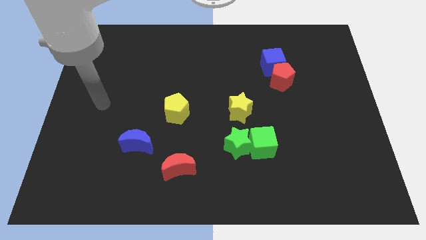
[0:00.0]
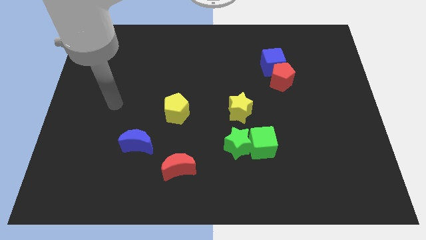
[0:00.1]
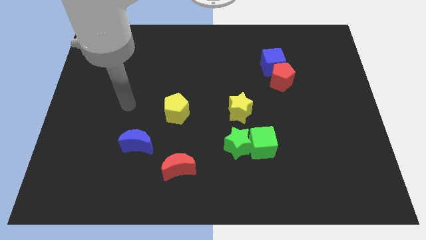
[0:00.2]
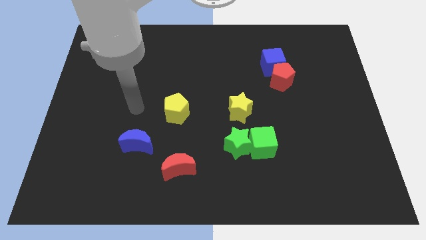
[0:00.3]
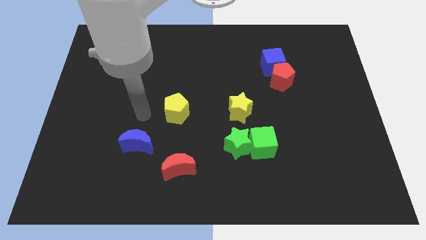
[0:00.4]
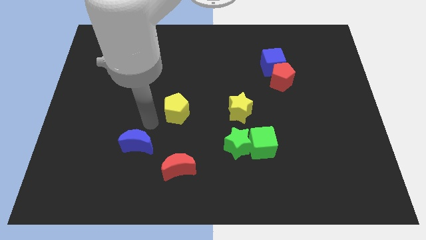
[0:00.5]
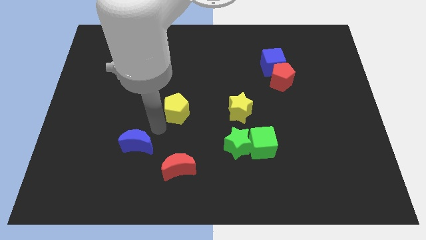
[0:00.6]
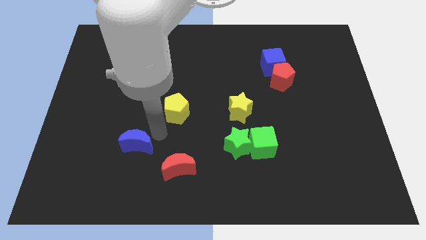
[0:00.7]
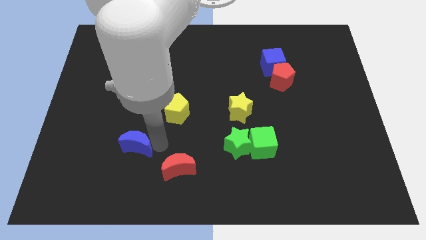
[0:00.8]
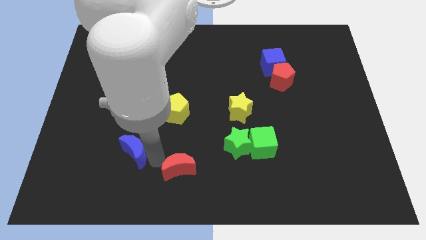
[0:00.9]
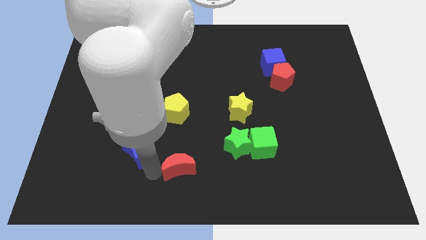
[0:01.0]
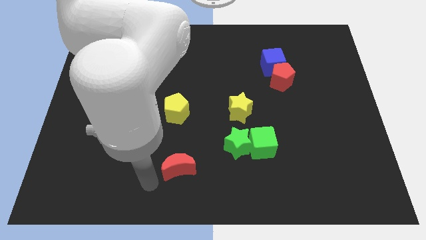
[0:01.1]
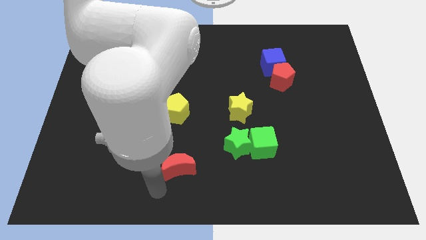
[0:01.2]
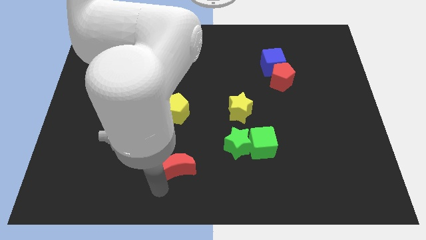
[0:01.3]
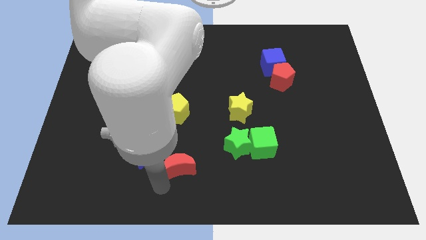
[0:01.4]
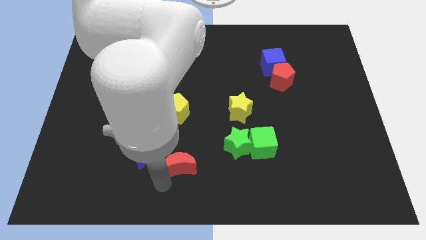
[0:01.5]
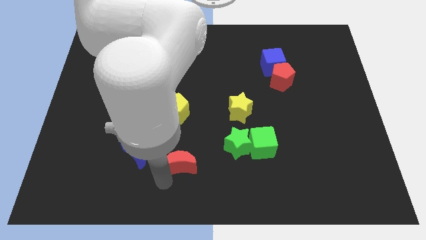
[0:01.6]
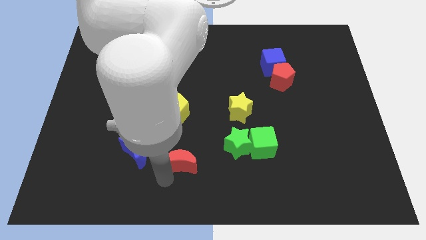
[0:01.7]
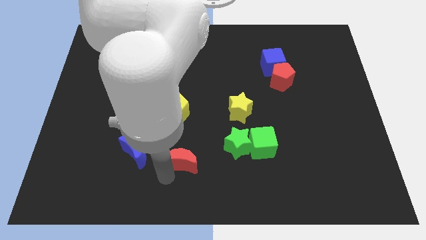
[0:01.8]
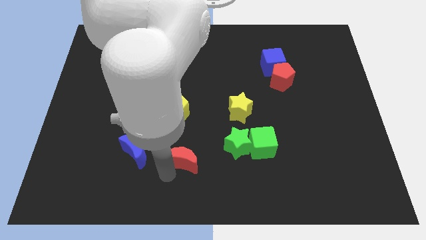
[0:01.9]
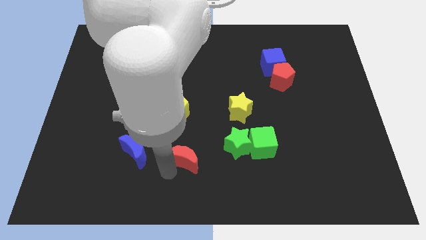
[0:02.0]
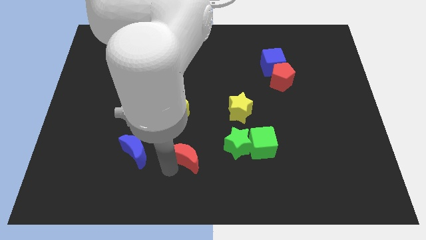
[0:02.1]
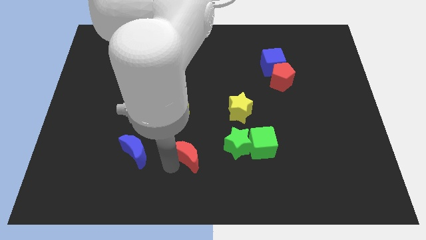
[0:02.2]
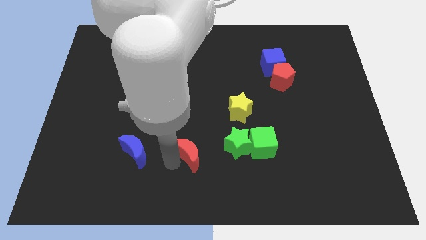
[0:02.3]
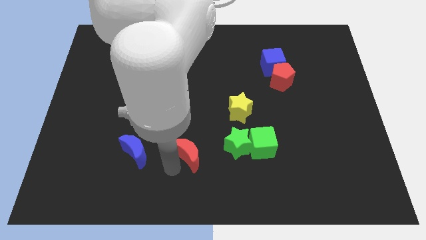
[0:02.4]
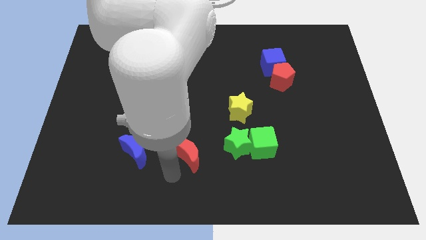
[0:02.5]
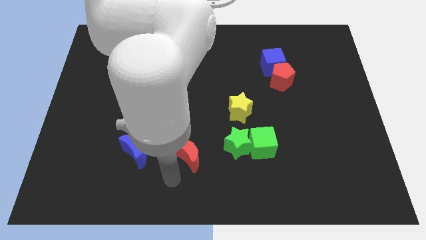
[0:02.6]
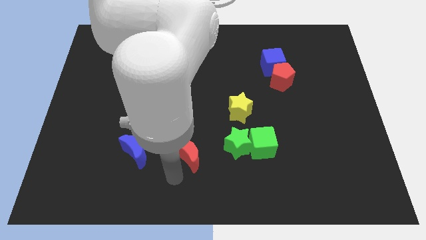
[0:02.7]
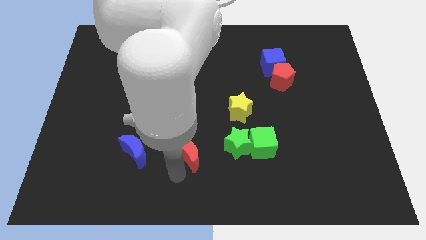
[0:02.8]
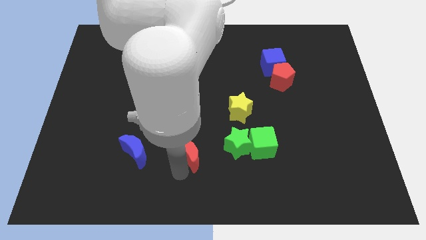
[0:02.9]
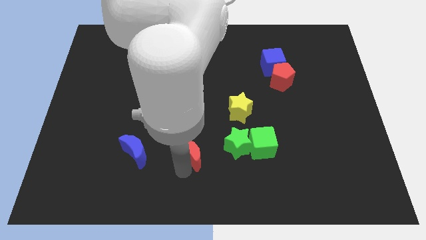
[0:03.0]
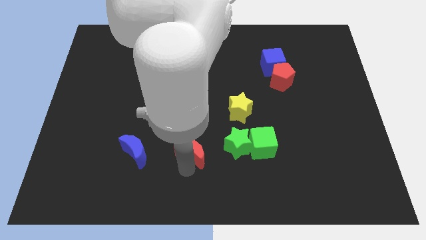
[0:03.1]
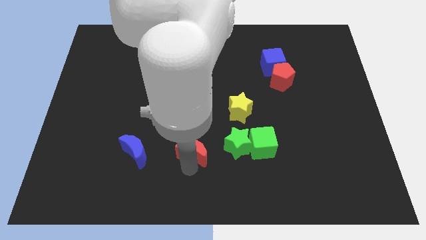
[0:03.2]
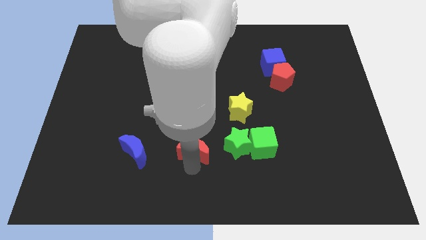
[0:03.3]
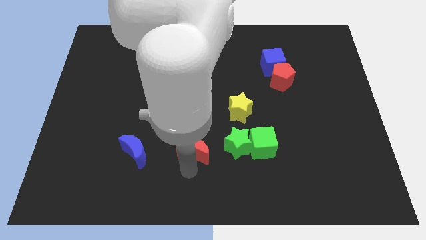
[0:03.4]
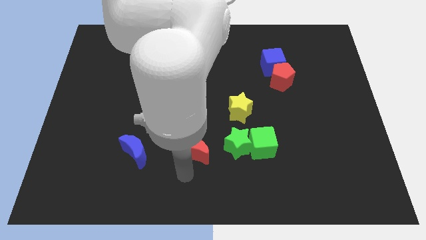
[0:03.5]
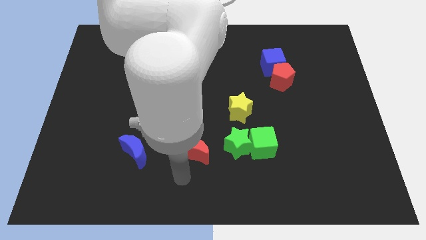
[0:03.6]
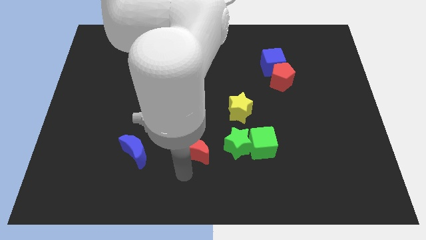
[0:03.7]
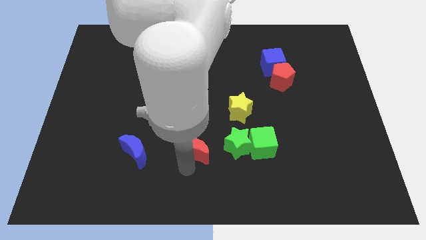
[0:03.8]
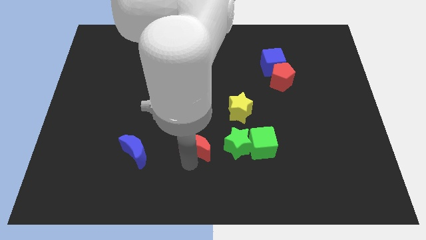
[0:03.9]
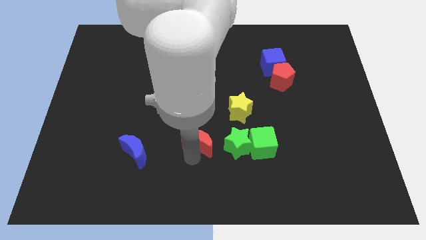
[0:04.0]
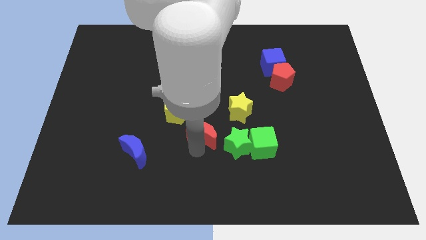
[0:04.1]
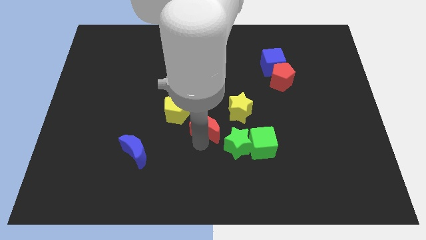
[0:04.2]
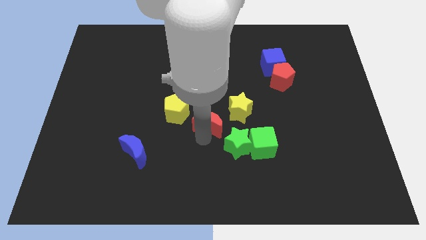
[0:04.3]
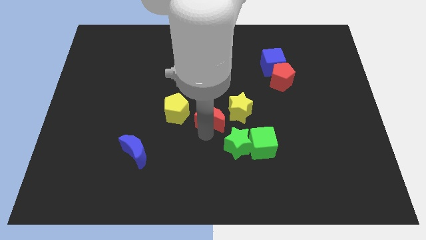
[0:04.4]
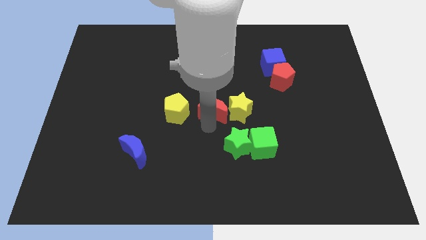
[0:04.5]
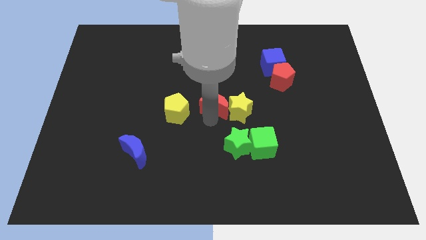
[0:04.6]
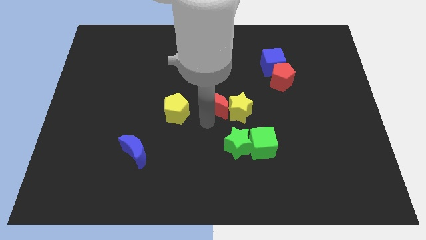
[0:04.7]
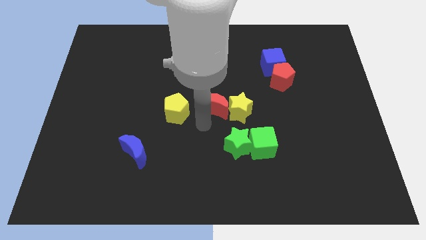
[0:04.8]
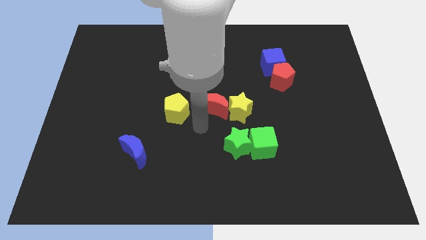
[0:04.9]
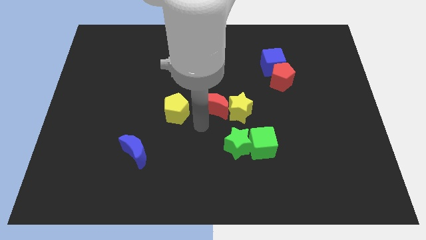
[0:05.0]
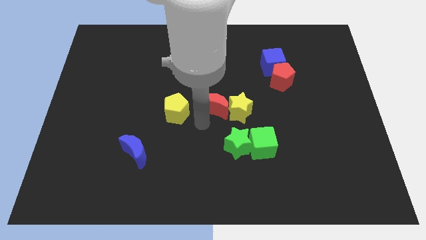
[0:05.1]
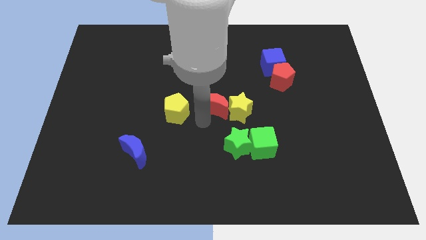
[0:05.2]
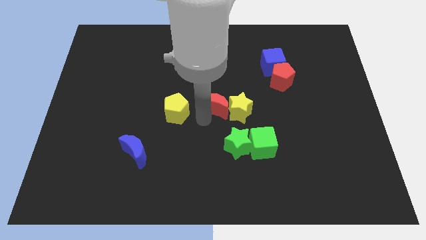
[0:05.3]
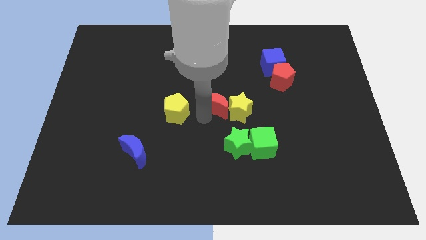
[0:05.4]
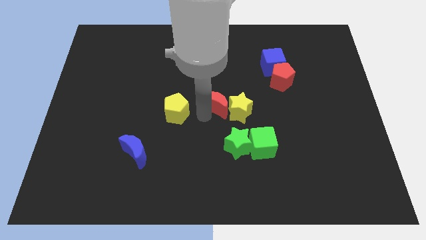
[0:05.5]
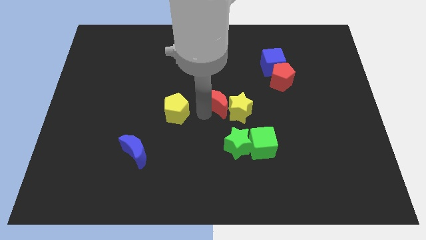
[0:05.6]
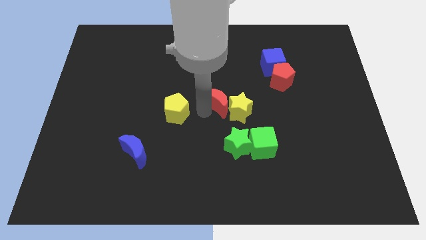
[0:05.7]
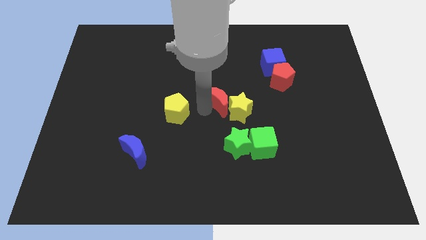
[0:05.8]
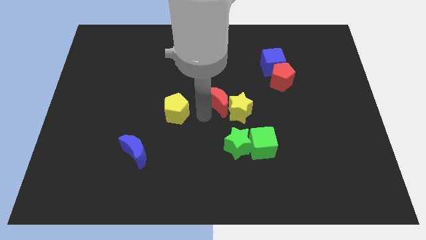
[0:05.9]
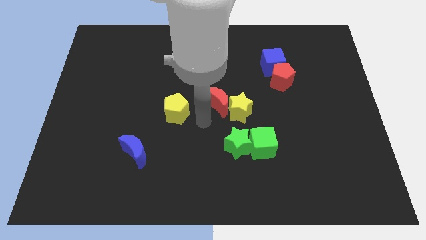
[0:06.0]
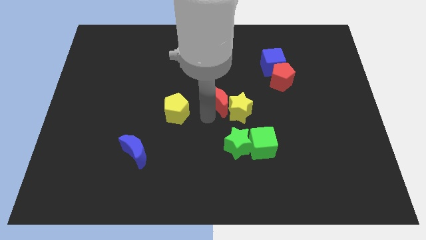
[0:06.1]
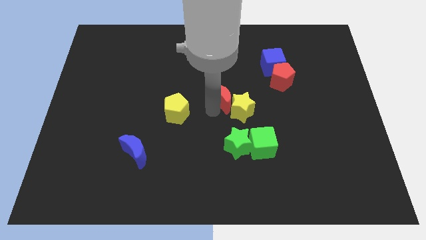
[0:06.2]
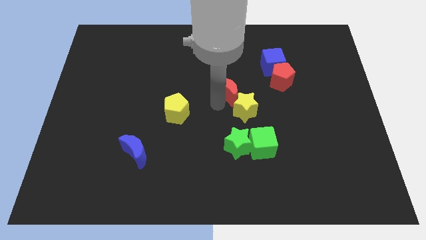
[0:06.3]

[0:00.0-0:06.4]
push the red moon to the top side of the yellow star

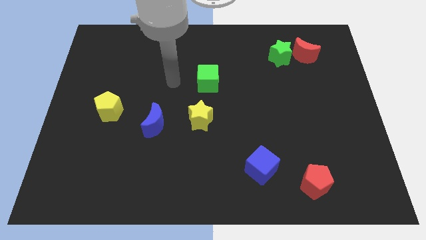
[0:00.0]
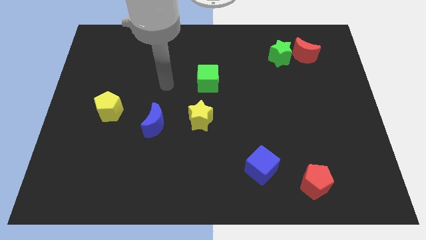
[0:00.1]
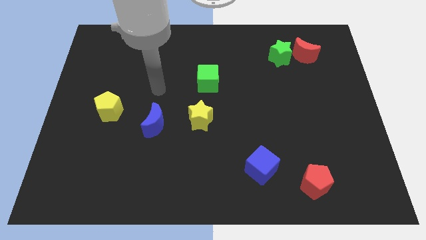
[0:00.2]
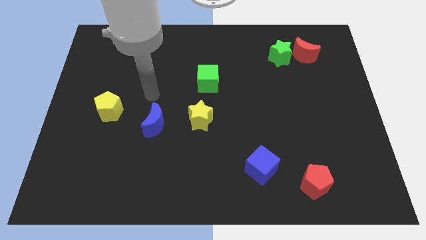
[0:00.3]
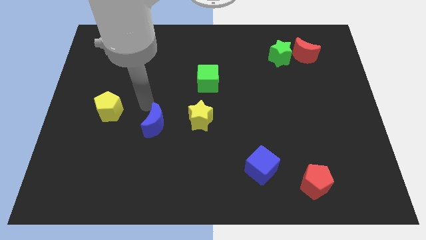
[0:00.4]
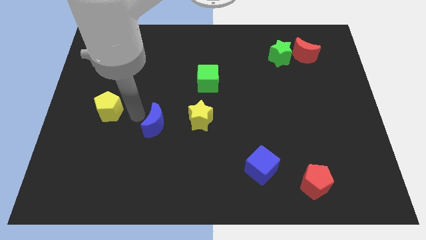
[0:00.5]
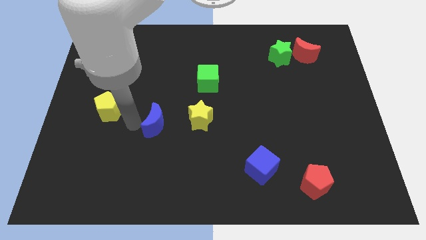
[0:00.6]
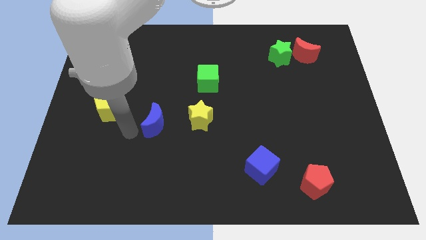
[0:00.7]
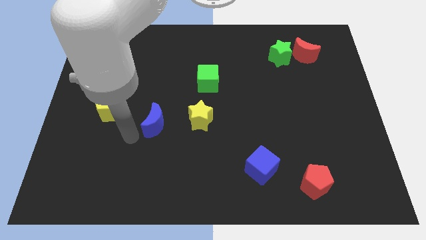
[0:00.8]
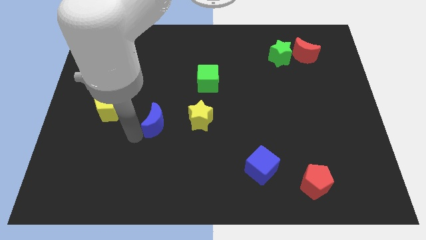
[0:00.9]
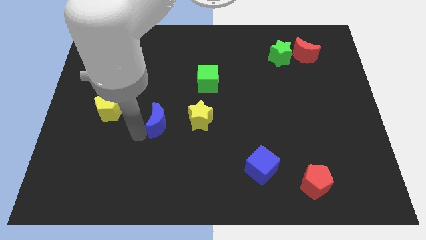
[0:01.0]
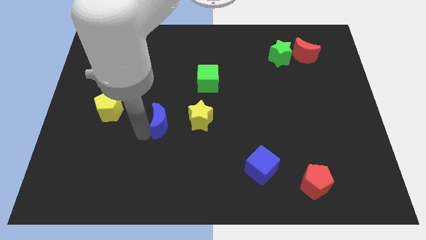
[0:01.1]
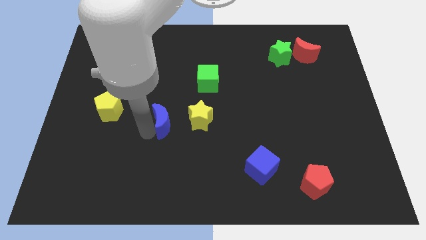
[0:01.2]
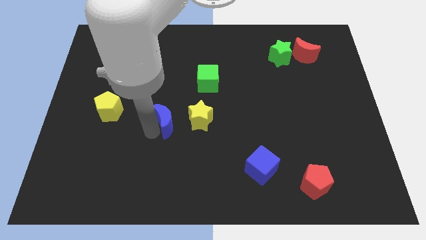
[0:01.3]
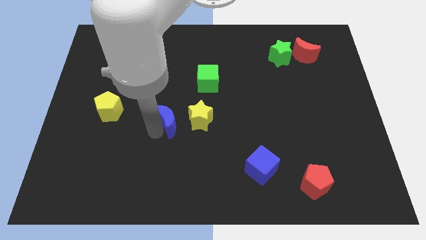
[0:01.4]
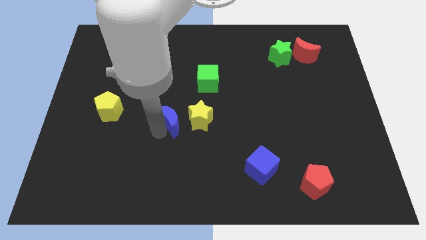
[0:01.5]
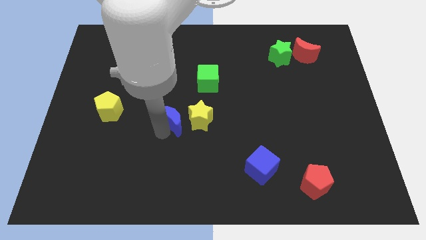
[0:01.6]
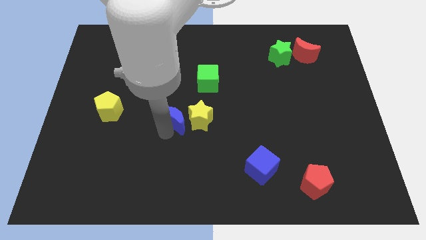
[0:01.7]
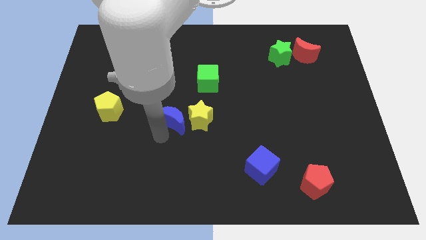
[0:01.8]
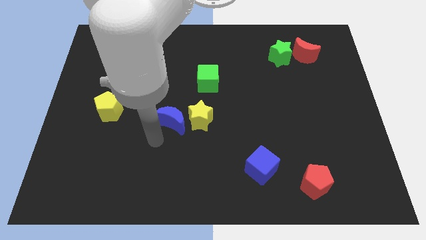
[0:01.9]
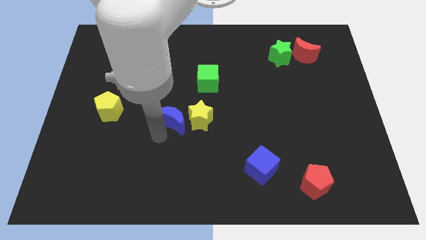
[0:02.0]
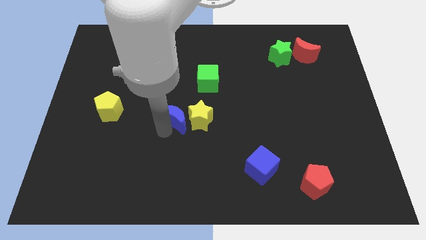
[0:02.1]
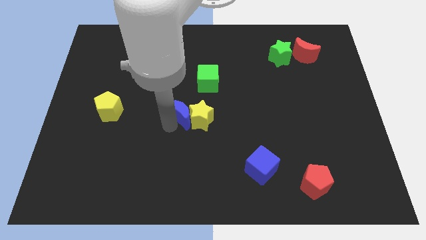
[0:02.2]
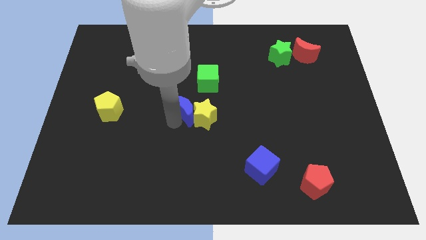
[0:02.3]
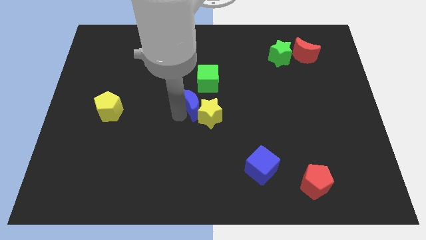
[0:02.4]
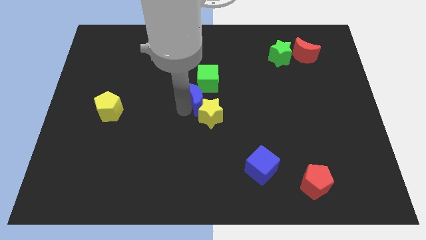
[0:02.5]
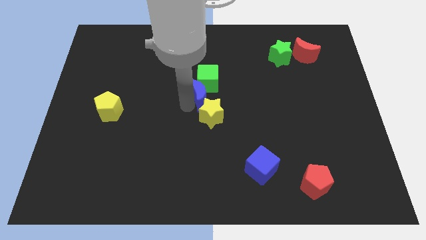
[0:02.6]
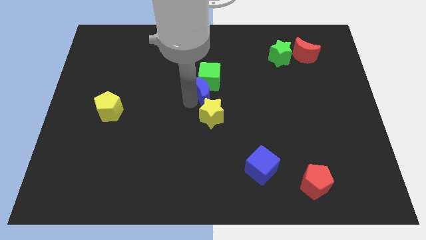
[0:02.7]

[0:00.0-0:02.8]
move the blue moon to the bottom right of the green cube
